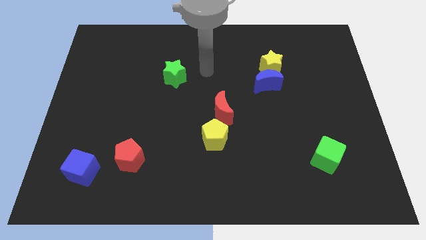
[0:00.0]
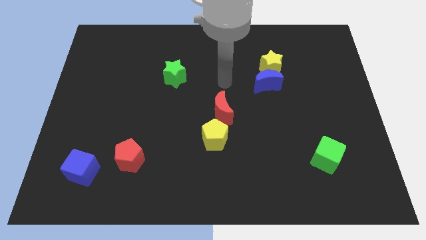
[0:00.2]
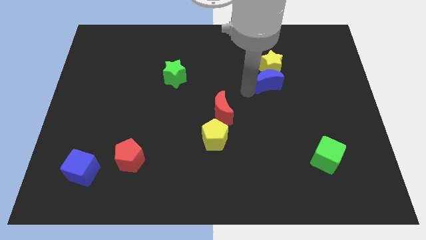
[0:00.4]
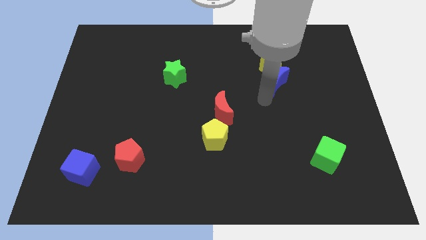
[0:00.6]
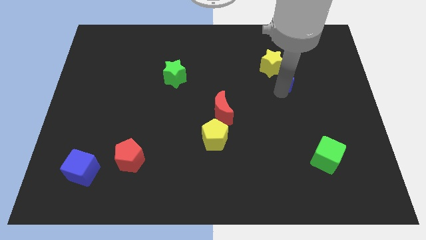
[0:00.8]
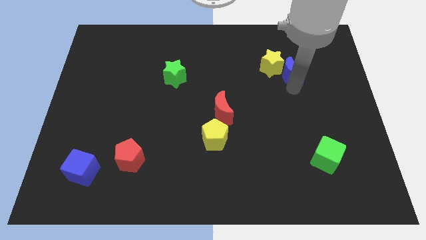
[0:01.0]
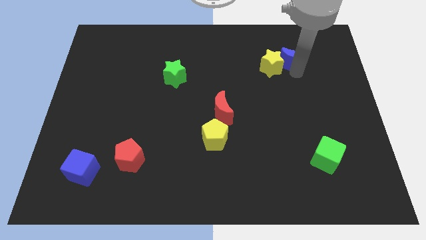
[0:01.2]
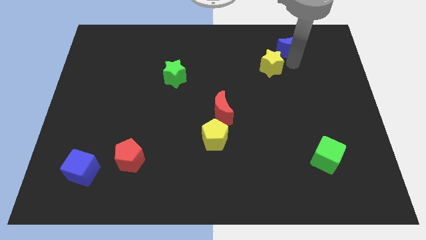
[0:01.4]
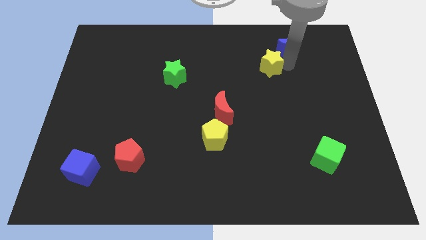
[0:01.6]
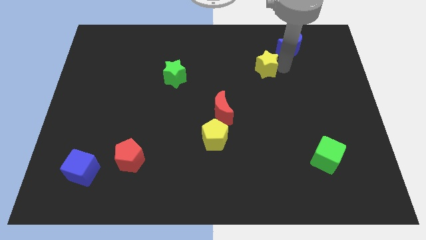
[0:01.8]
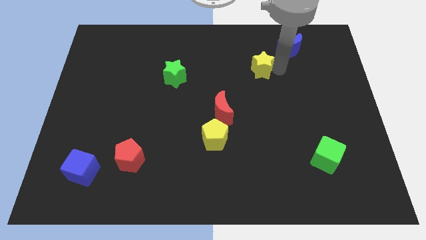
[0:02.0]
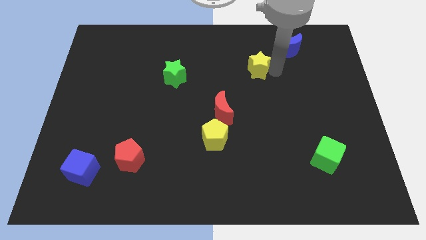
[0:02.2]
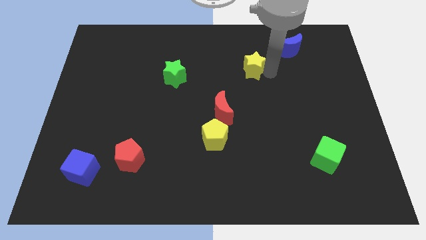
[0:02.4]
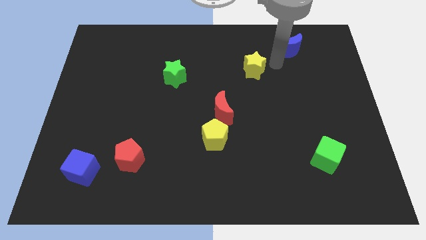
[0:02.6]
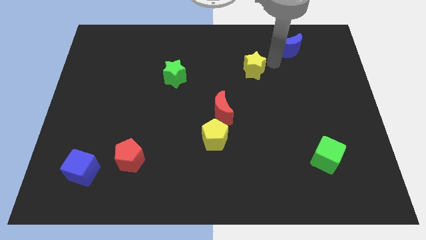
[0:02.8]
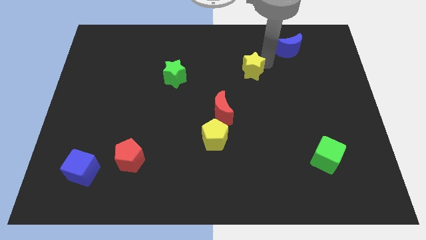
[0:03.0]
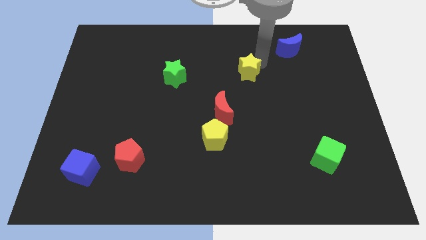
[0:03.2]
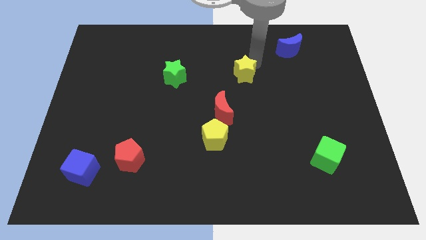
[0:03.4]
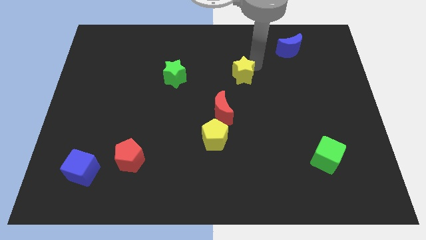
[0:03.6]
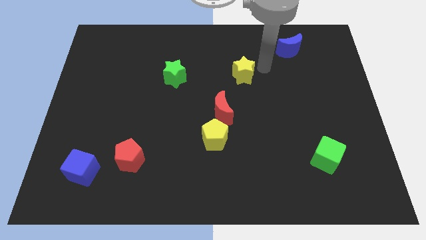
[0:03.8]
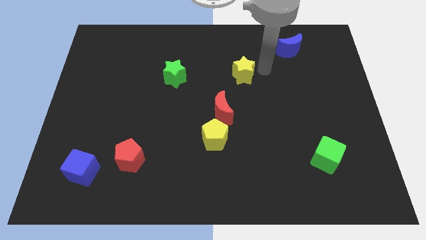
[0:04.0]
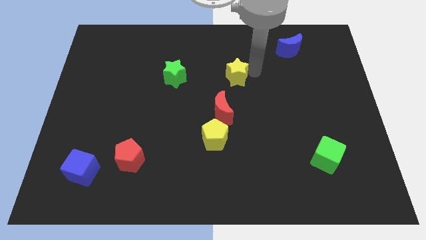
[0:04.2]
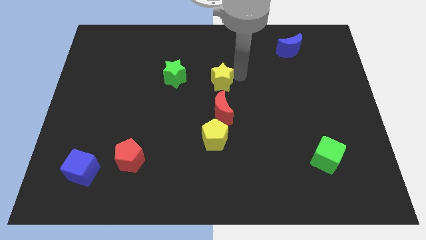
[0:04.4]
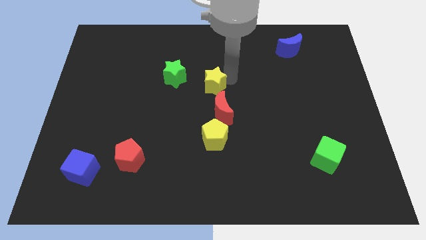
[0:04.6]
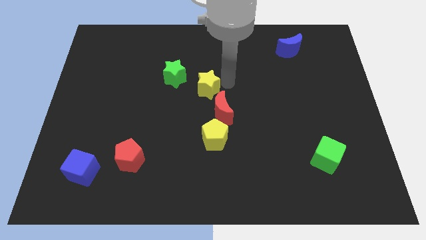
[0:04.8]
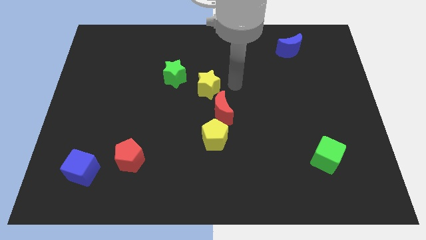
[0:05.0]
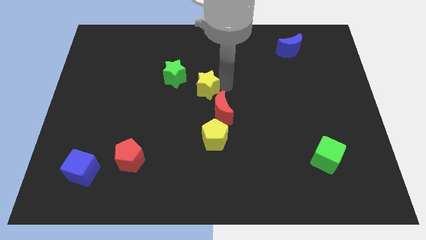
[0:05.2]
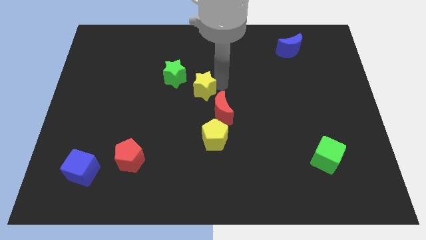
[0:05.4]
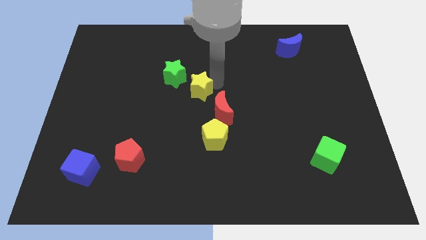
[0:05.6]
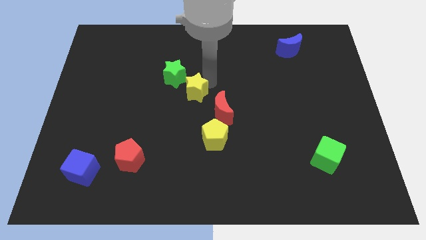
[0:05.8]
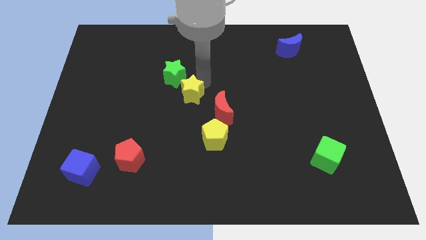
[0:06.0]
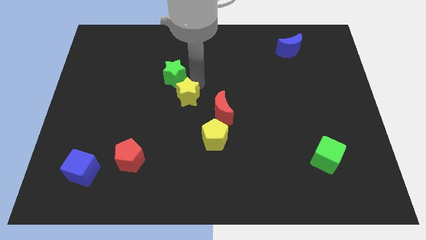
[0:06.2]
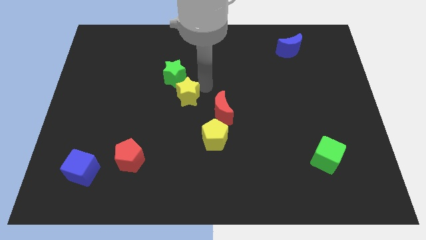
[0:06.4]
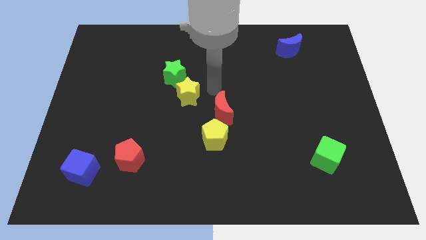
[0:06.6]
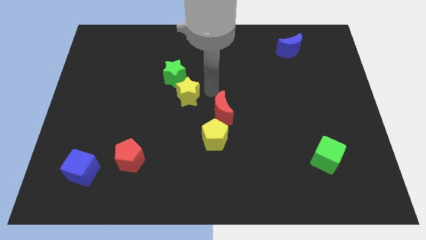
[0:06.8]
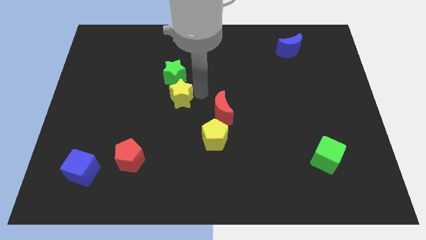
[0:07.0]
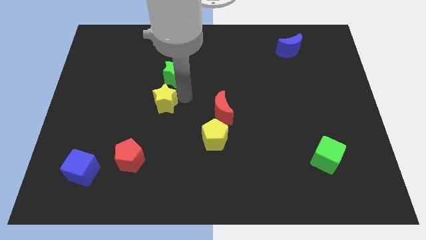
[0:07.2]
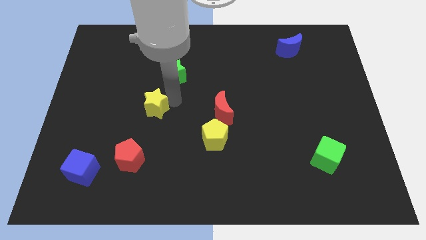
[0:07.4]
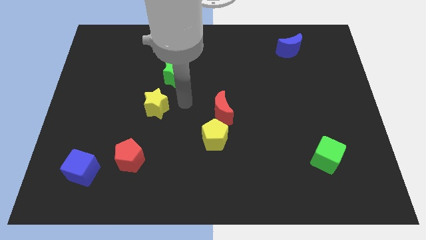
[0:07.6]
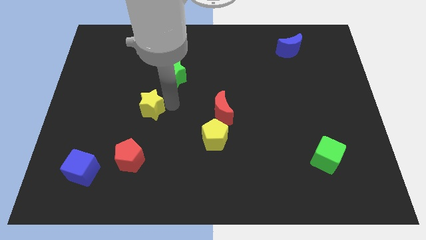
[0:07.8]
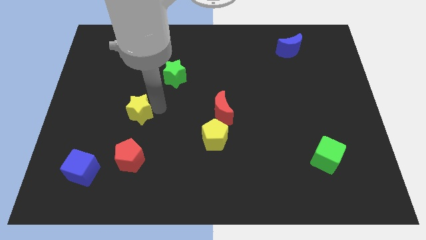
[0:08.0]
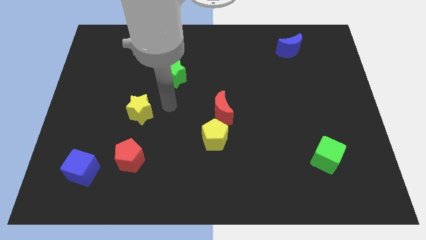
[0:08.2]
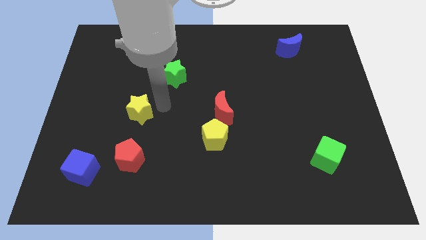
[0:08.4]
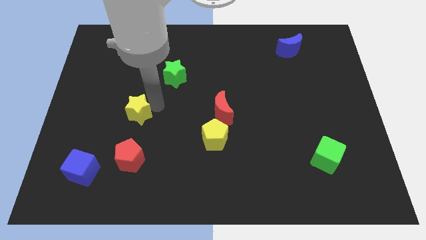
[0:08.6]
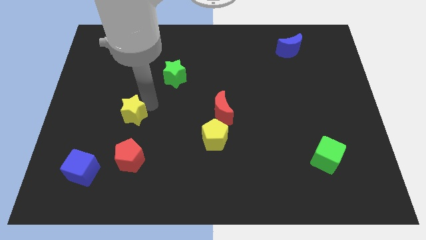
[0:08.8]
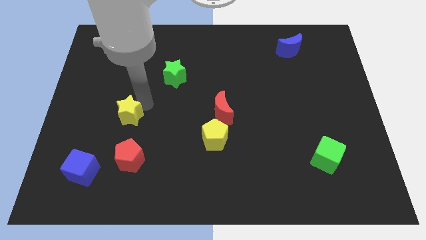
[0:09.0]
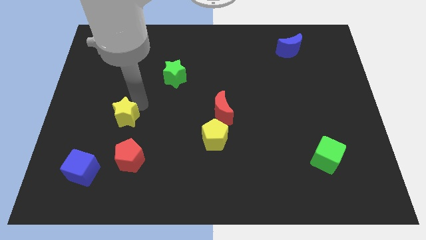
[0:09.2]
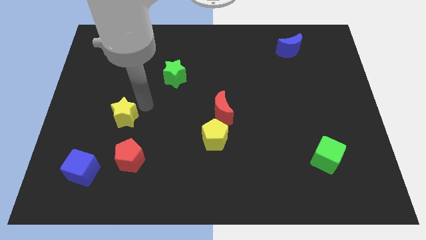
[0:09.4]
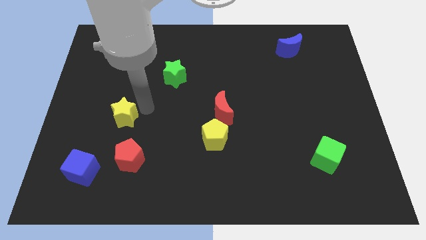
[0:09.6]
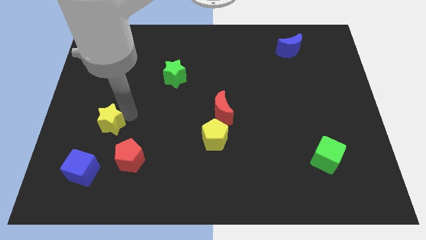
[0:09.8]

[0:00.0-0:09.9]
push the yellow star to the top of the blue cube

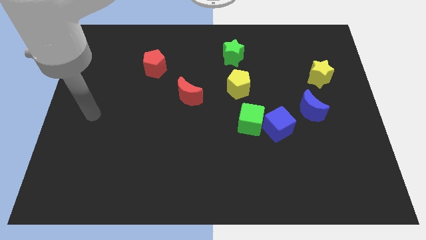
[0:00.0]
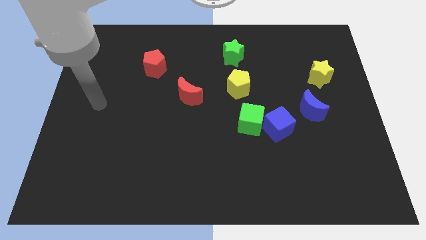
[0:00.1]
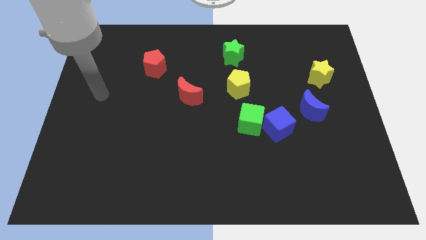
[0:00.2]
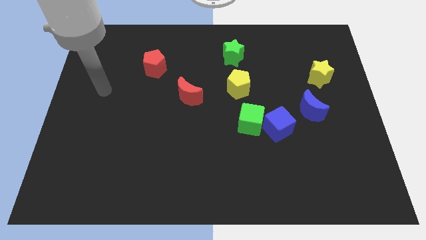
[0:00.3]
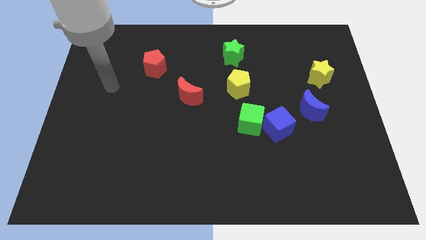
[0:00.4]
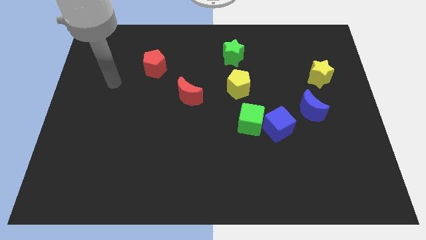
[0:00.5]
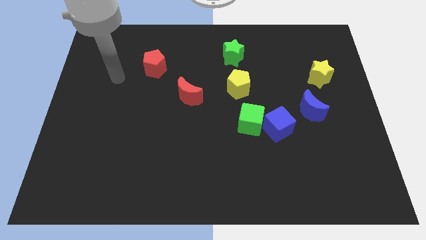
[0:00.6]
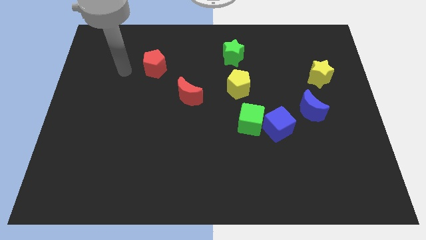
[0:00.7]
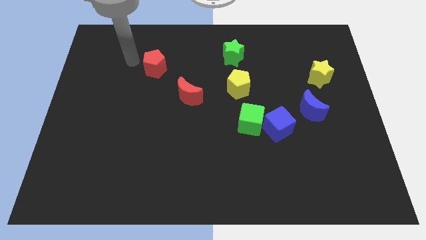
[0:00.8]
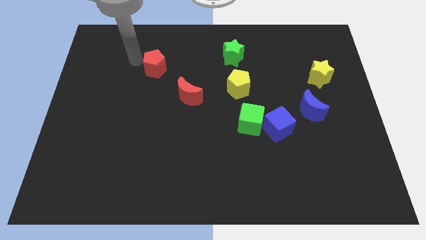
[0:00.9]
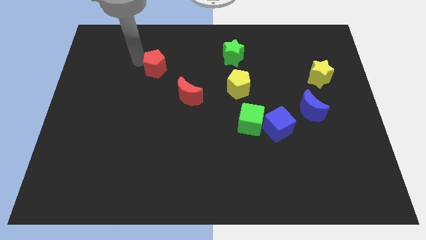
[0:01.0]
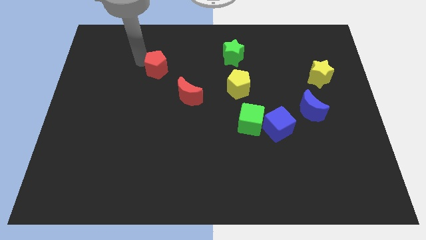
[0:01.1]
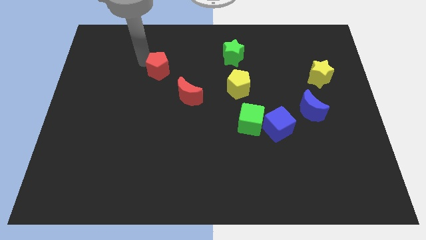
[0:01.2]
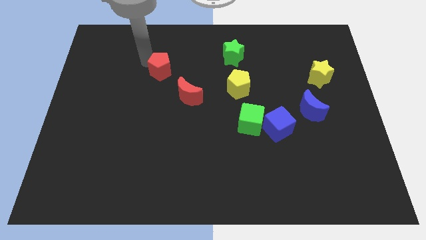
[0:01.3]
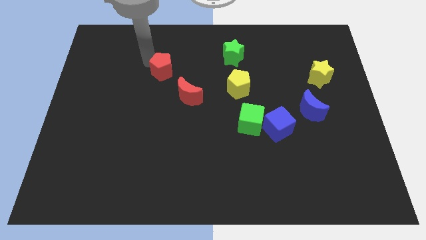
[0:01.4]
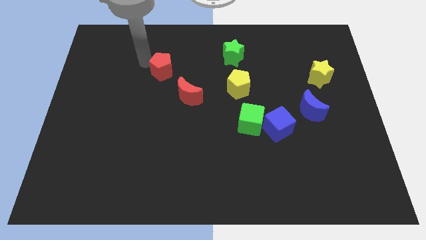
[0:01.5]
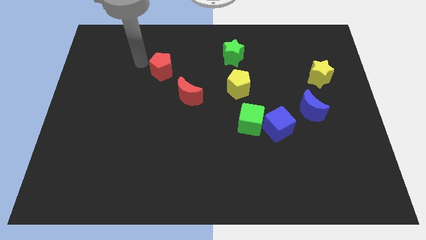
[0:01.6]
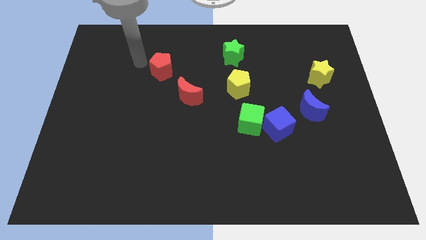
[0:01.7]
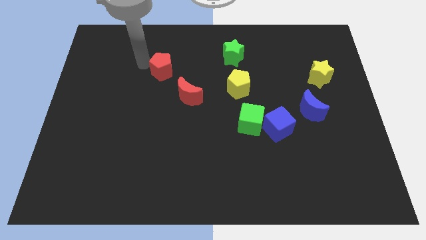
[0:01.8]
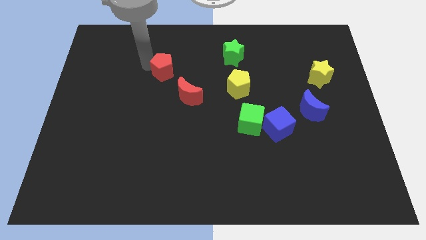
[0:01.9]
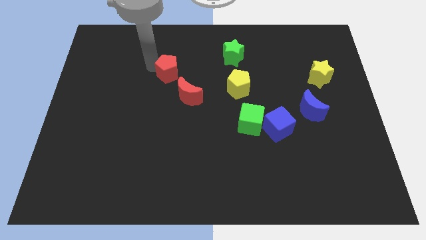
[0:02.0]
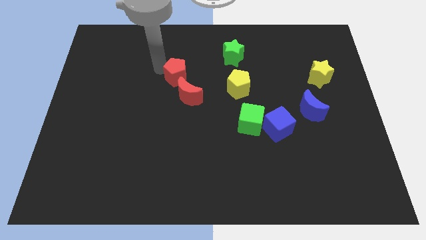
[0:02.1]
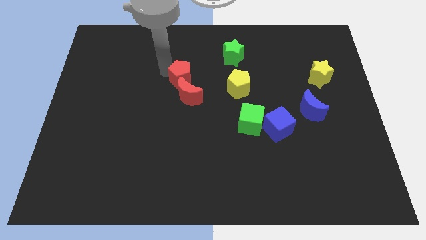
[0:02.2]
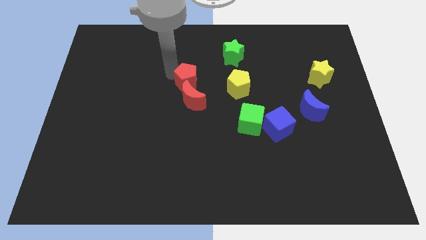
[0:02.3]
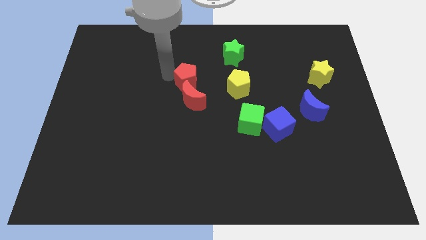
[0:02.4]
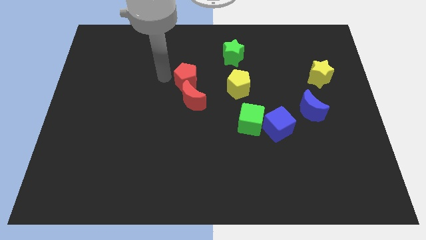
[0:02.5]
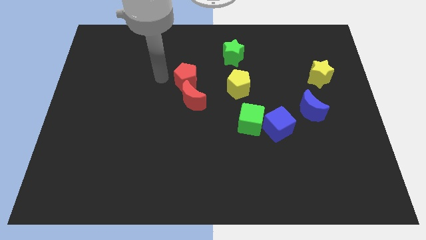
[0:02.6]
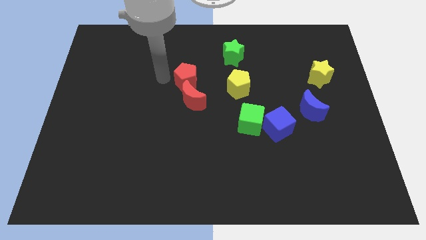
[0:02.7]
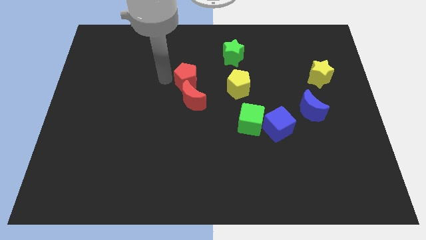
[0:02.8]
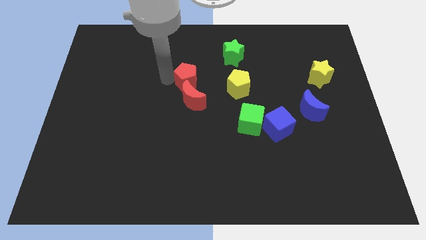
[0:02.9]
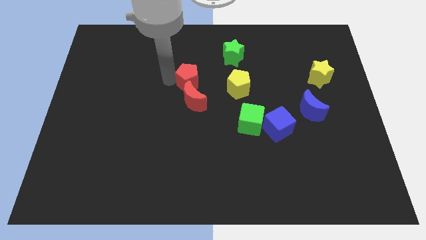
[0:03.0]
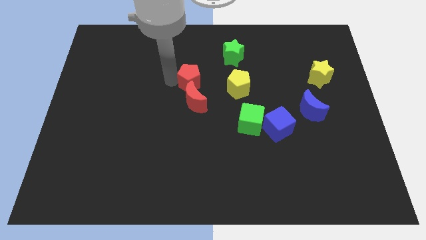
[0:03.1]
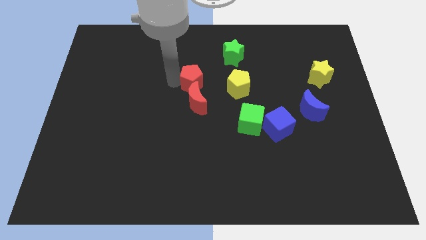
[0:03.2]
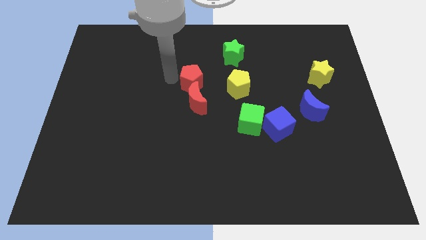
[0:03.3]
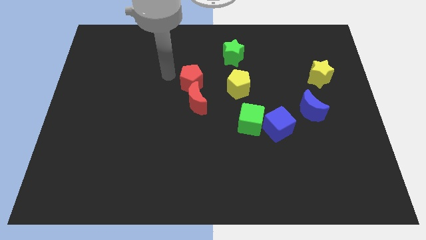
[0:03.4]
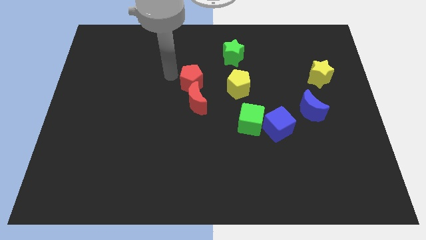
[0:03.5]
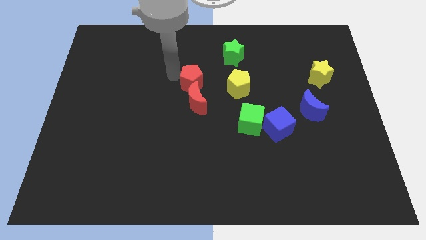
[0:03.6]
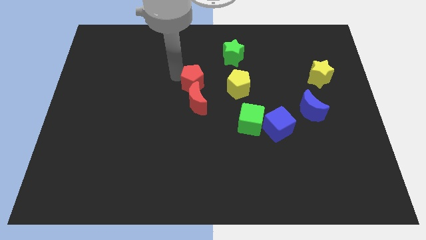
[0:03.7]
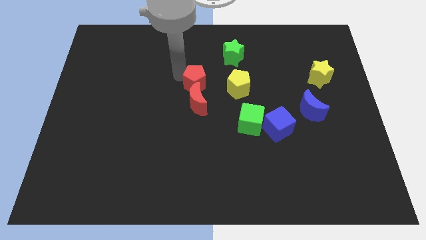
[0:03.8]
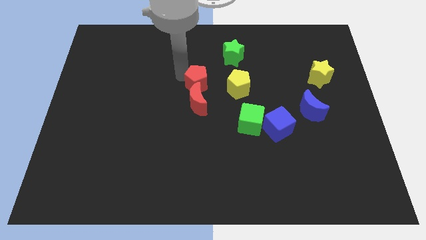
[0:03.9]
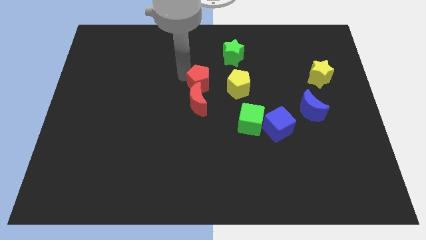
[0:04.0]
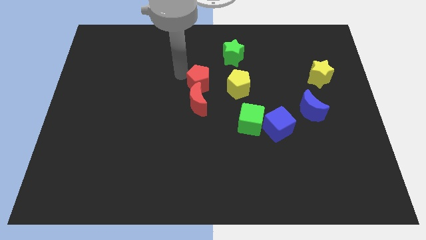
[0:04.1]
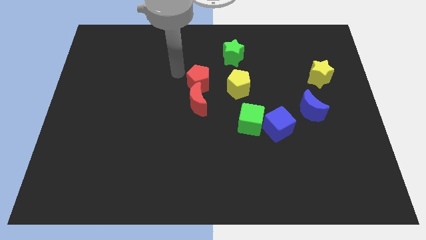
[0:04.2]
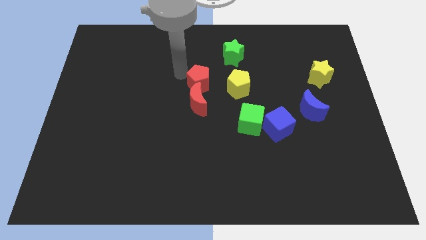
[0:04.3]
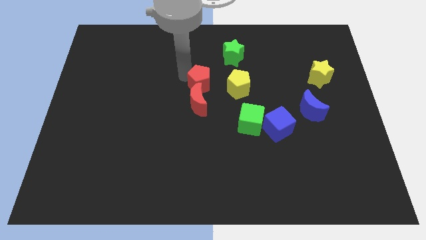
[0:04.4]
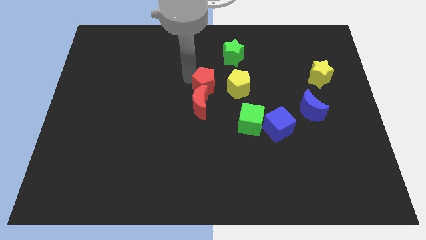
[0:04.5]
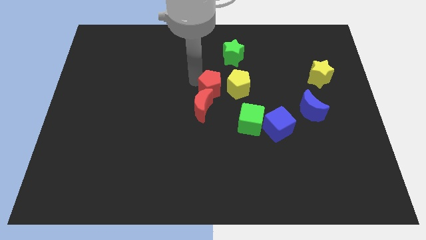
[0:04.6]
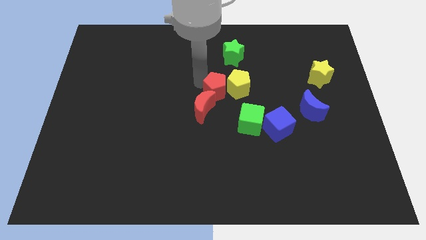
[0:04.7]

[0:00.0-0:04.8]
put the red pentagon to the bottom of the green star
